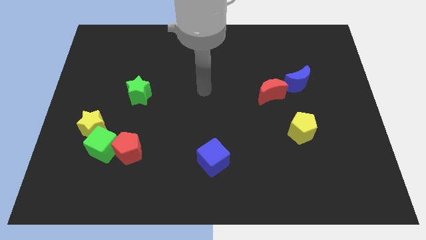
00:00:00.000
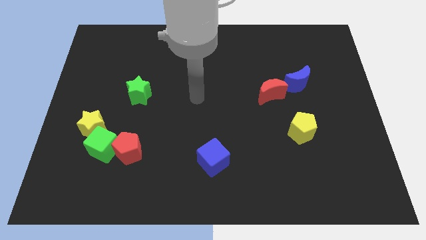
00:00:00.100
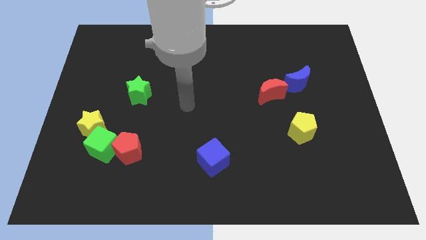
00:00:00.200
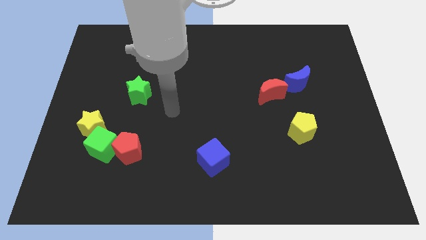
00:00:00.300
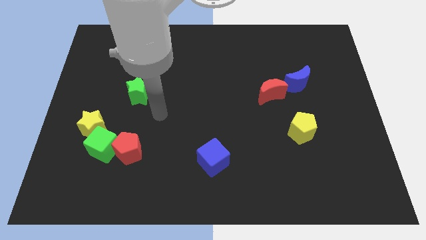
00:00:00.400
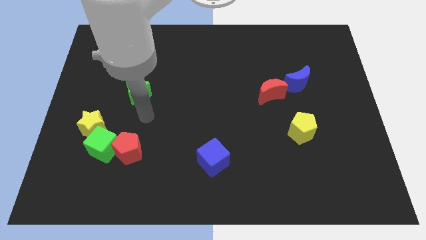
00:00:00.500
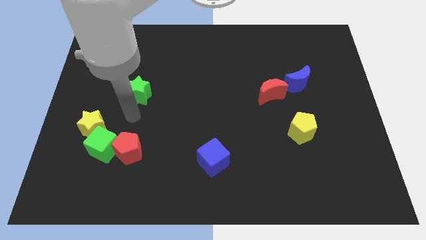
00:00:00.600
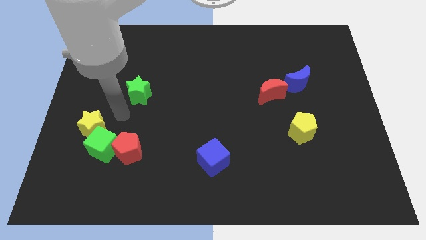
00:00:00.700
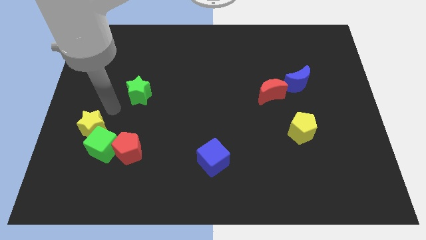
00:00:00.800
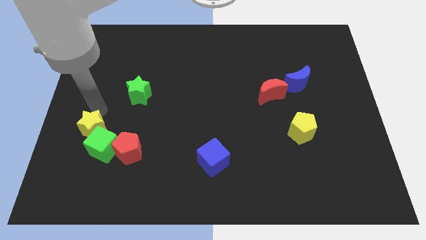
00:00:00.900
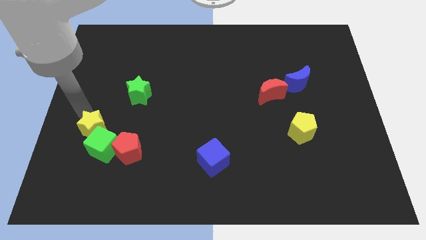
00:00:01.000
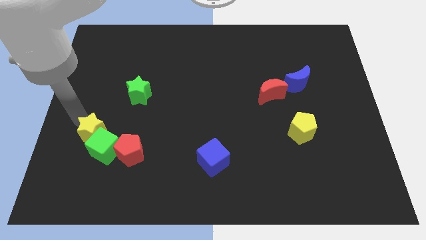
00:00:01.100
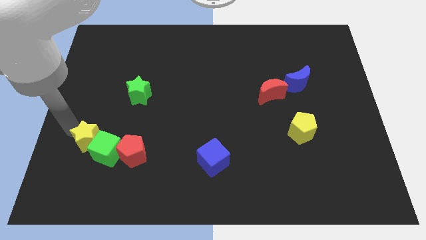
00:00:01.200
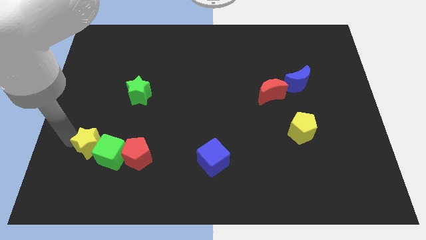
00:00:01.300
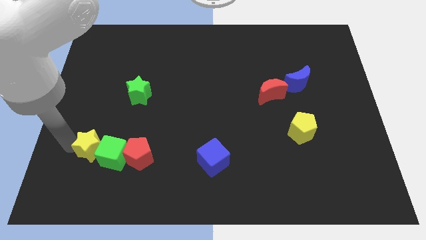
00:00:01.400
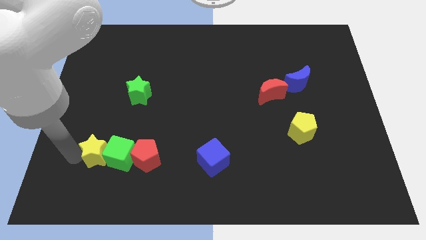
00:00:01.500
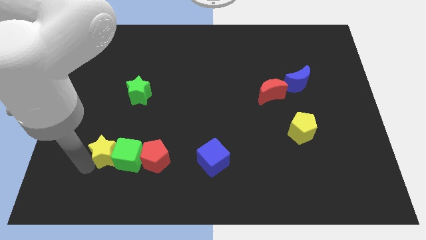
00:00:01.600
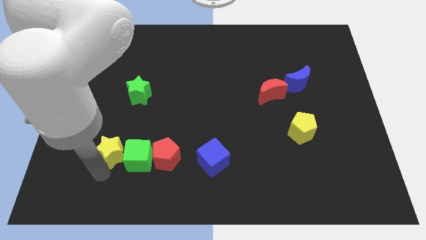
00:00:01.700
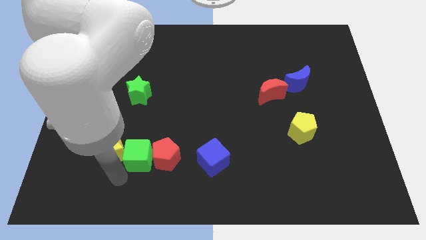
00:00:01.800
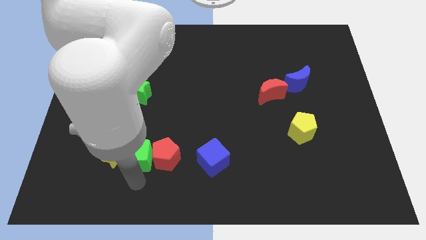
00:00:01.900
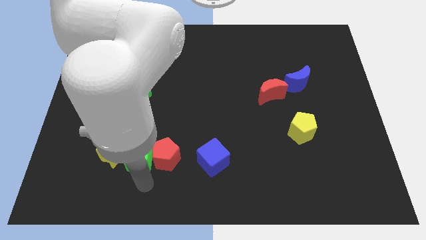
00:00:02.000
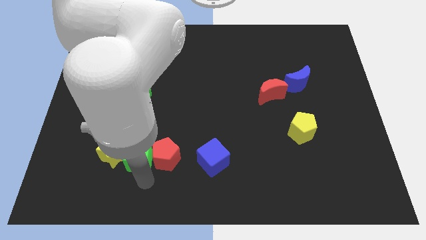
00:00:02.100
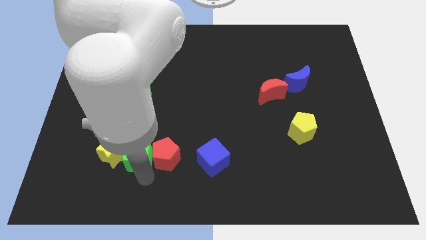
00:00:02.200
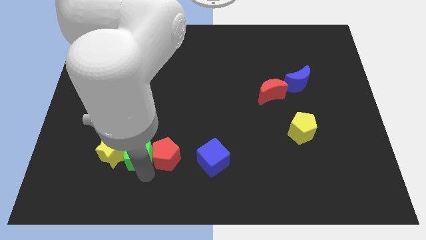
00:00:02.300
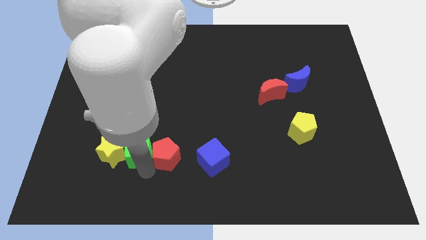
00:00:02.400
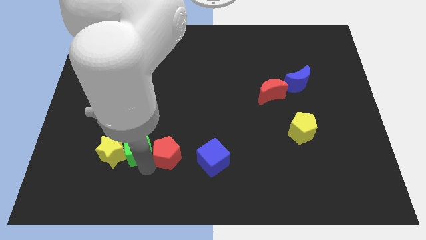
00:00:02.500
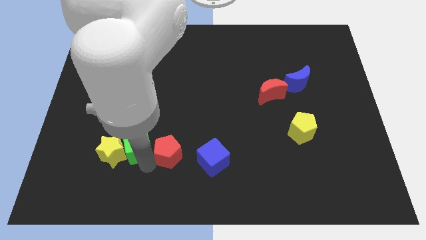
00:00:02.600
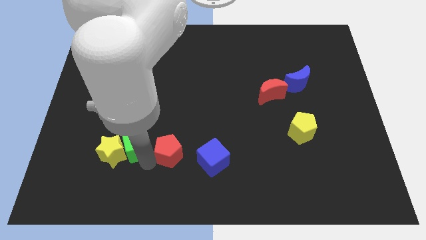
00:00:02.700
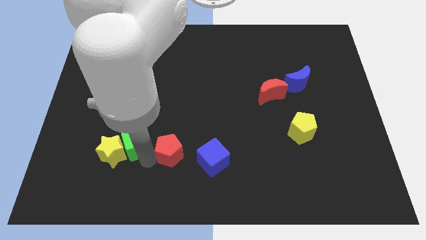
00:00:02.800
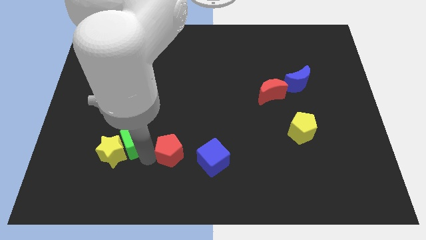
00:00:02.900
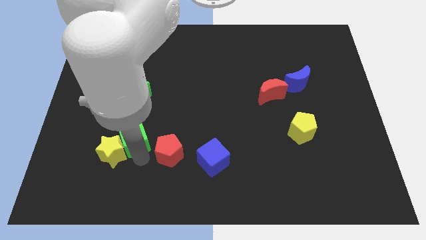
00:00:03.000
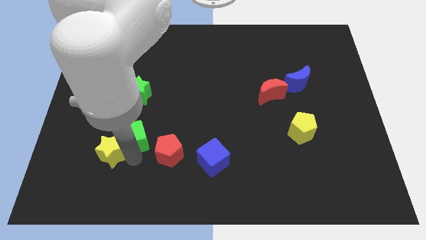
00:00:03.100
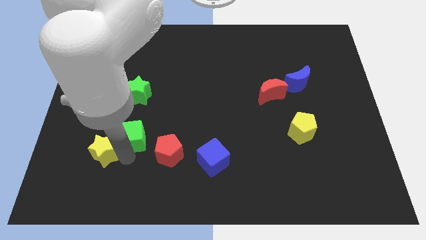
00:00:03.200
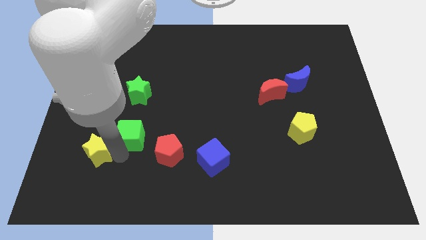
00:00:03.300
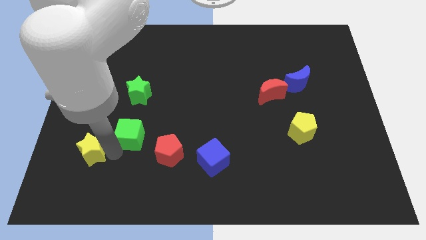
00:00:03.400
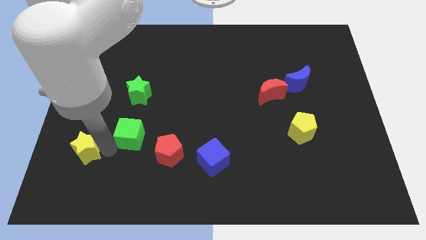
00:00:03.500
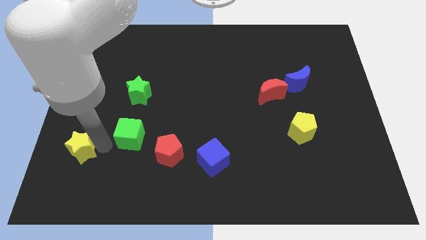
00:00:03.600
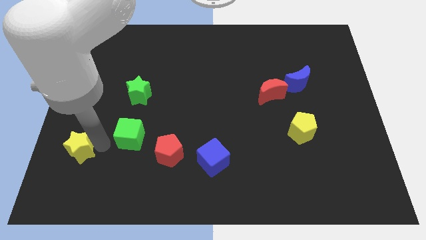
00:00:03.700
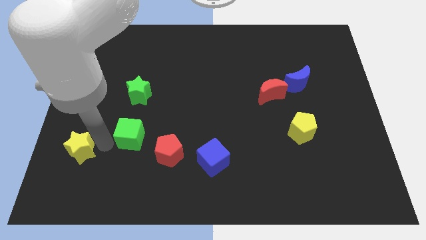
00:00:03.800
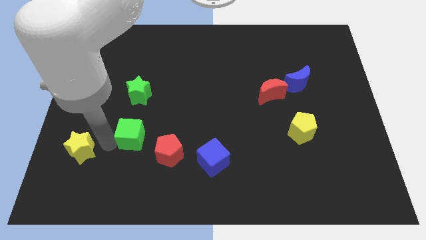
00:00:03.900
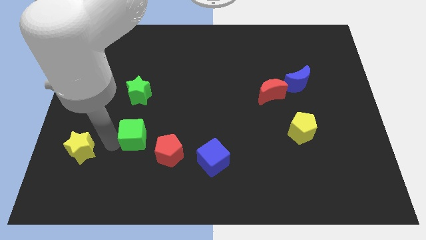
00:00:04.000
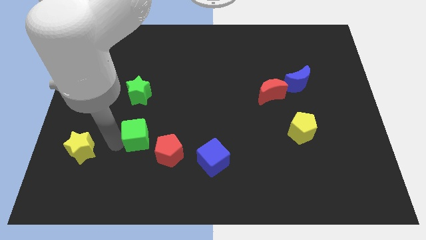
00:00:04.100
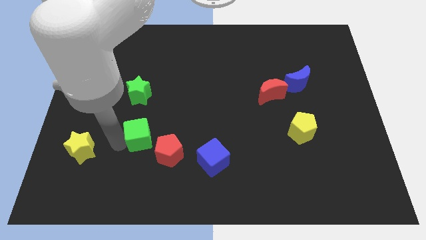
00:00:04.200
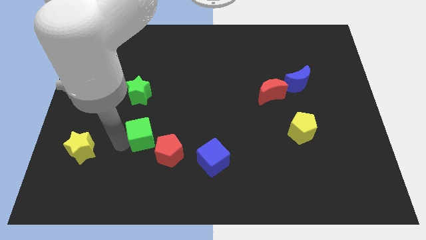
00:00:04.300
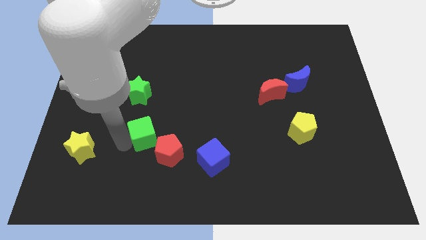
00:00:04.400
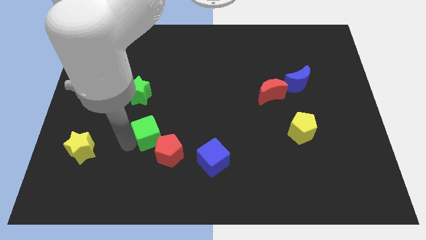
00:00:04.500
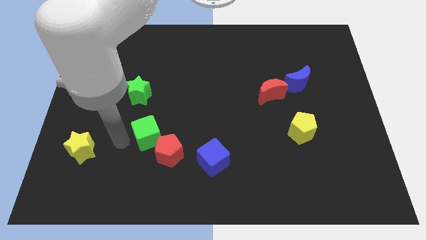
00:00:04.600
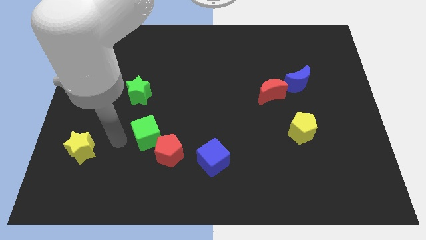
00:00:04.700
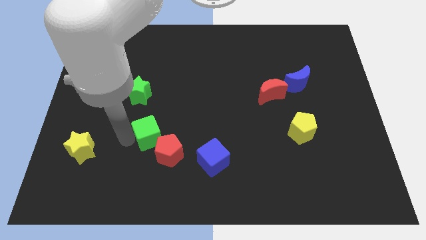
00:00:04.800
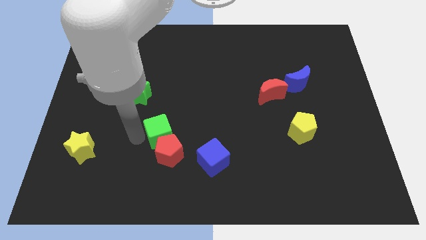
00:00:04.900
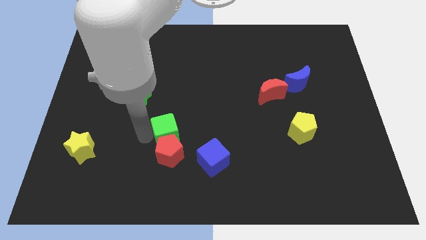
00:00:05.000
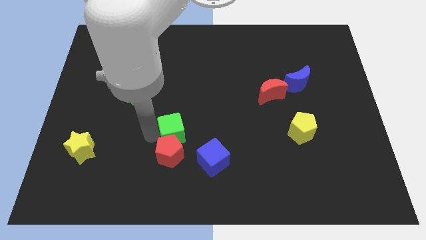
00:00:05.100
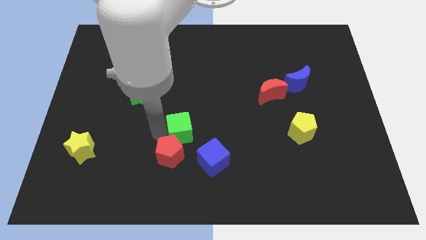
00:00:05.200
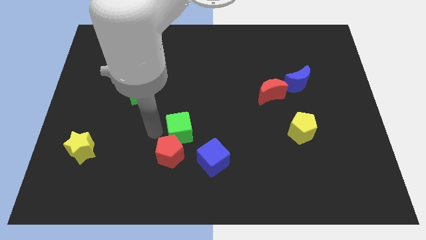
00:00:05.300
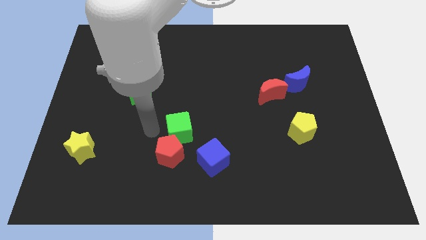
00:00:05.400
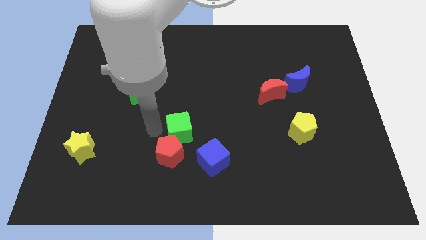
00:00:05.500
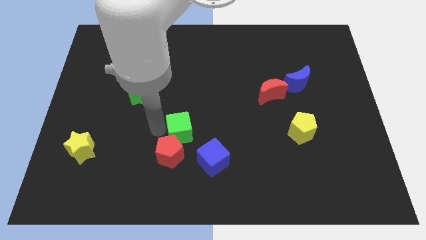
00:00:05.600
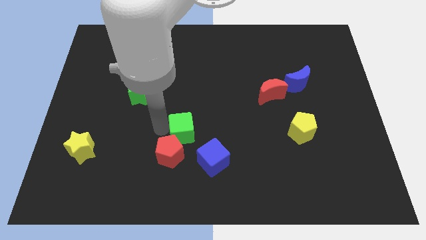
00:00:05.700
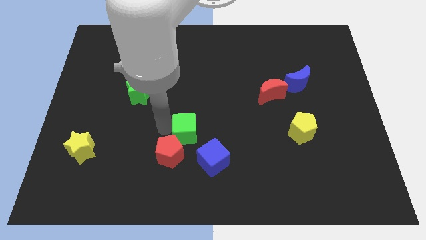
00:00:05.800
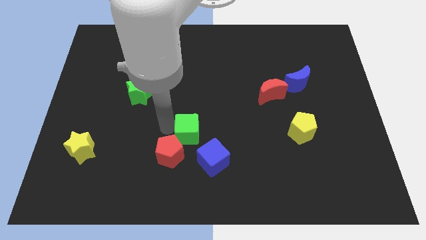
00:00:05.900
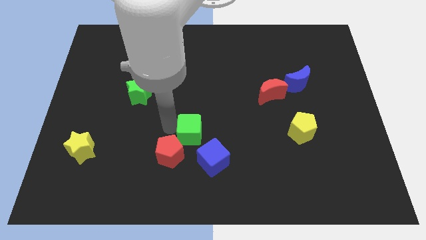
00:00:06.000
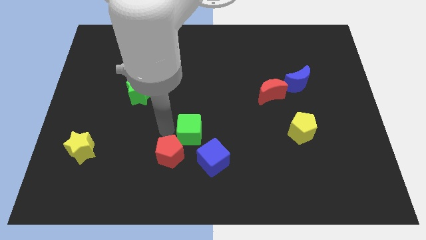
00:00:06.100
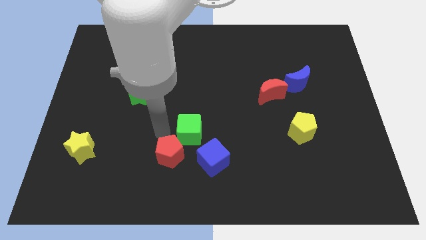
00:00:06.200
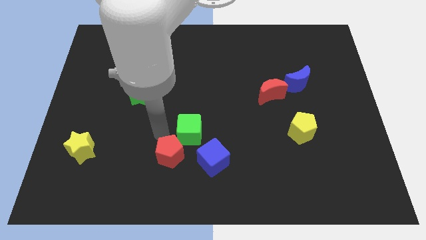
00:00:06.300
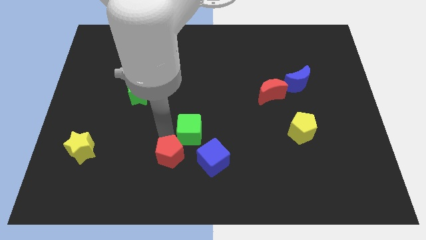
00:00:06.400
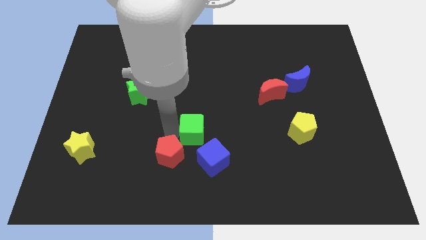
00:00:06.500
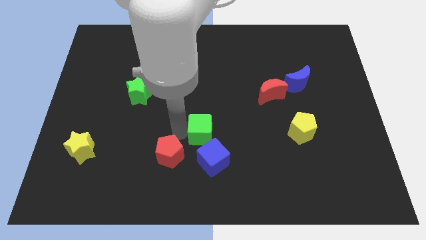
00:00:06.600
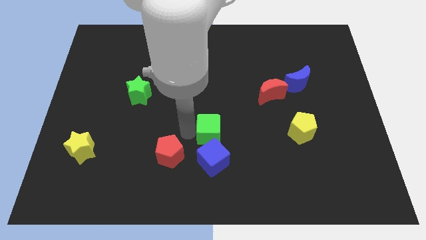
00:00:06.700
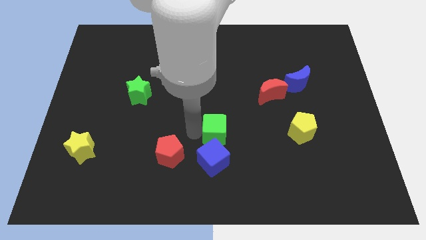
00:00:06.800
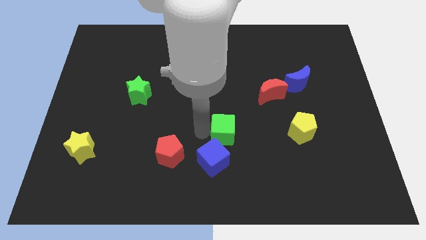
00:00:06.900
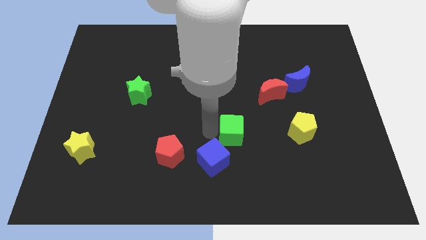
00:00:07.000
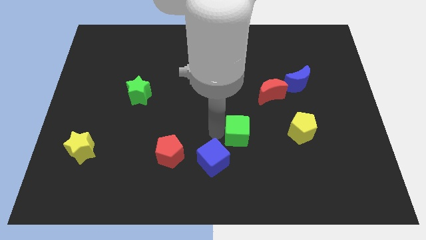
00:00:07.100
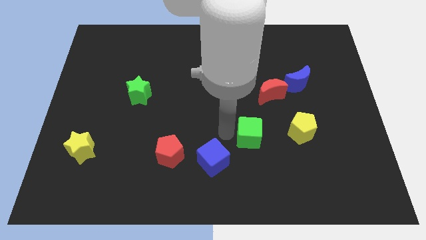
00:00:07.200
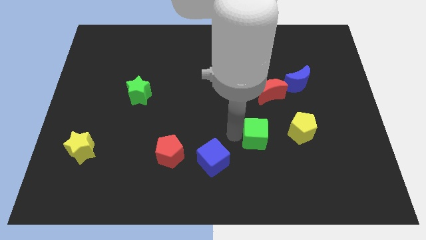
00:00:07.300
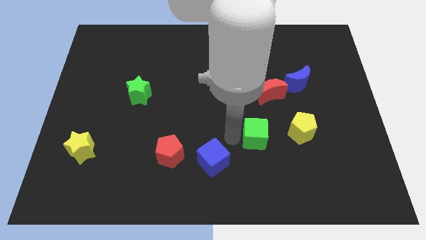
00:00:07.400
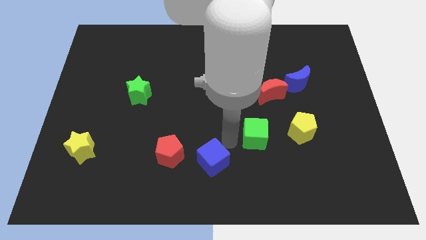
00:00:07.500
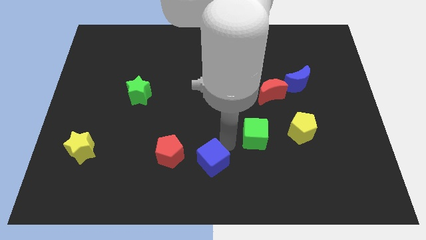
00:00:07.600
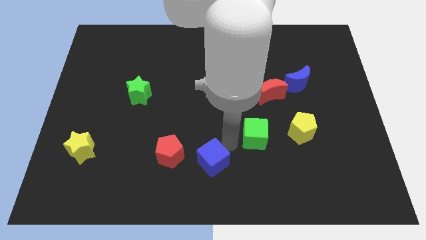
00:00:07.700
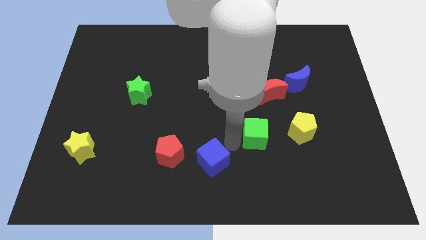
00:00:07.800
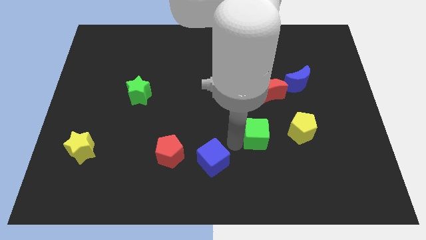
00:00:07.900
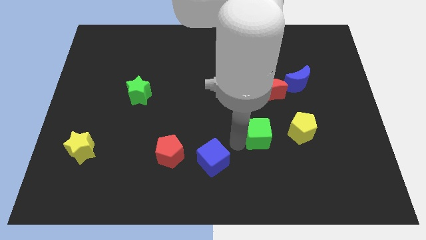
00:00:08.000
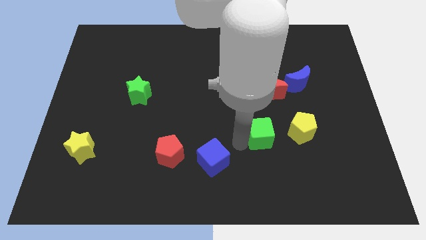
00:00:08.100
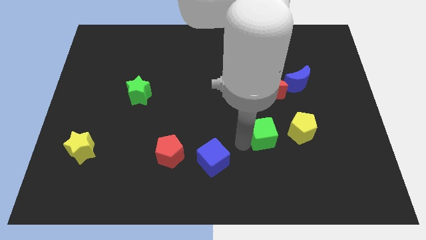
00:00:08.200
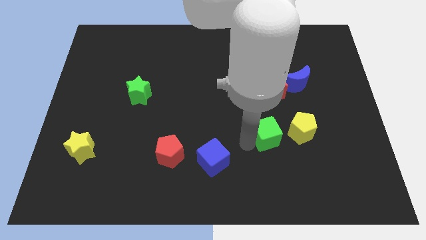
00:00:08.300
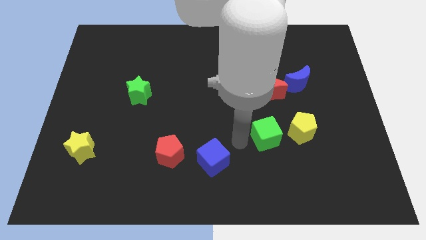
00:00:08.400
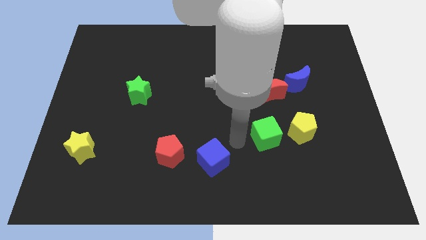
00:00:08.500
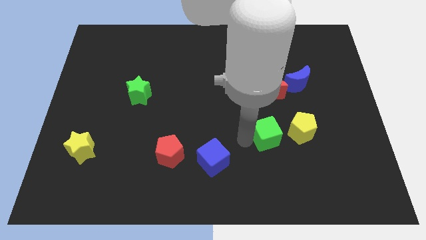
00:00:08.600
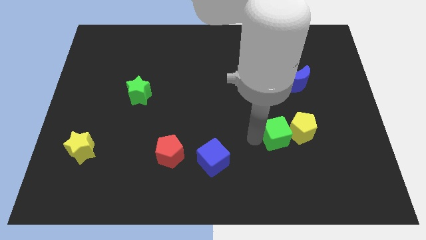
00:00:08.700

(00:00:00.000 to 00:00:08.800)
move the green cube to the yellow pentagon
